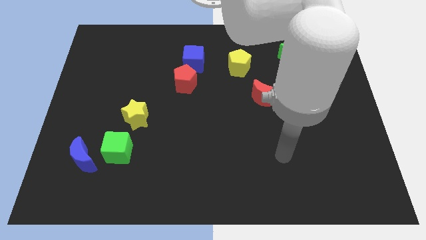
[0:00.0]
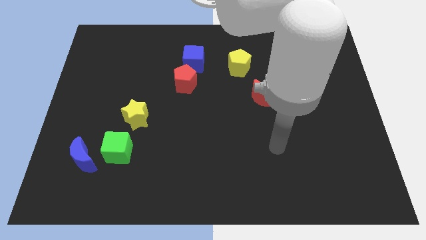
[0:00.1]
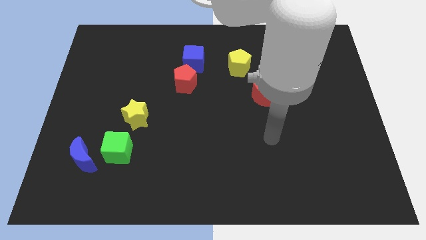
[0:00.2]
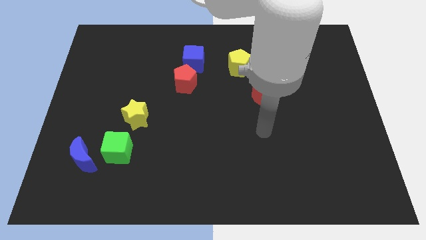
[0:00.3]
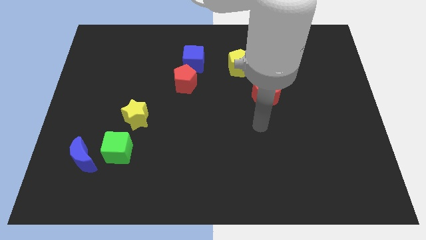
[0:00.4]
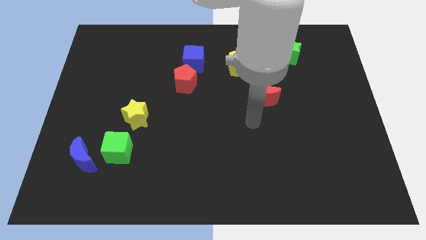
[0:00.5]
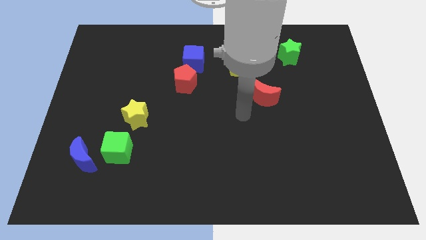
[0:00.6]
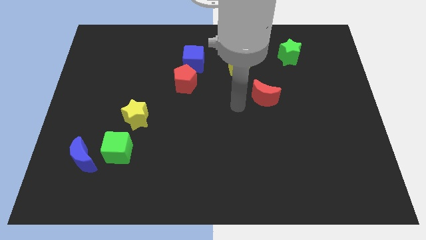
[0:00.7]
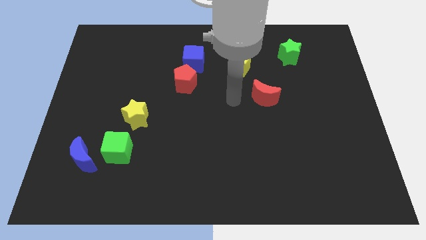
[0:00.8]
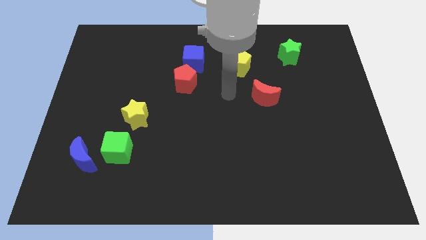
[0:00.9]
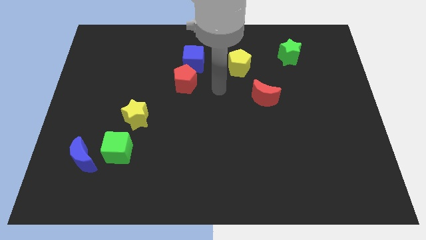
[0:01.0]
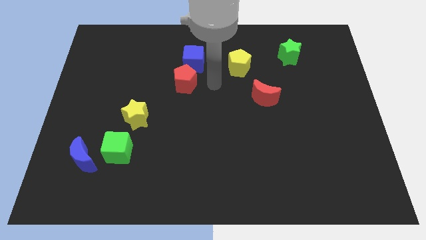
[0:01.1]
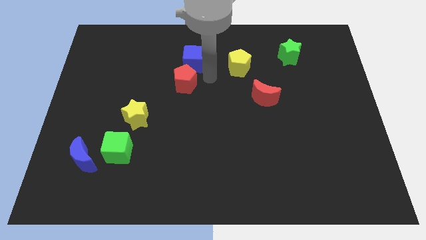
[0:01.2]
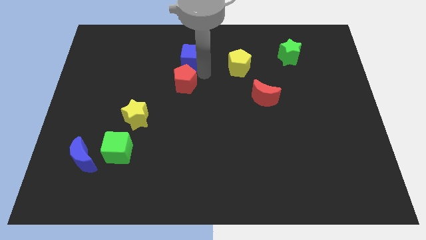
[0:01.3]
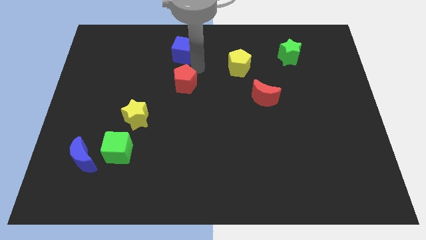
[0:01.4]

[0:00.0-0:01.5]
separate the red pentagon from the blue cube

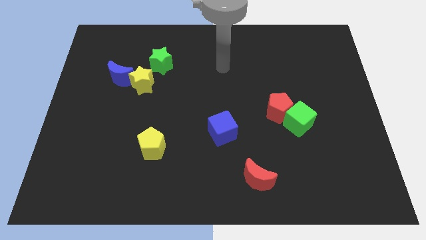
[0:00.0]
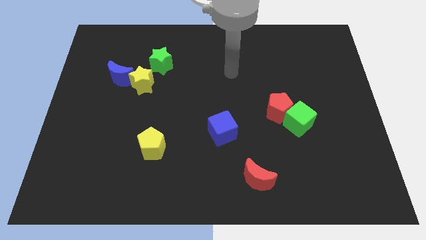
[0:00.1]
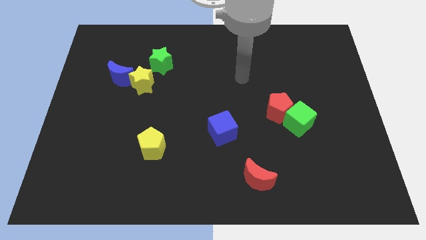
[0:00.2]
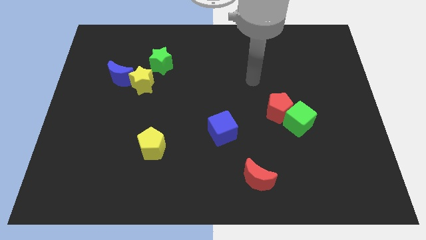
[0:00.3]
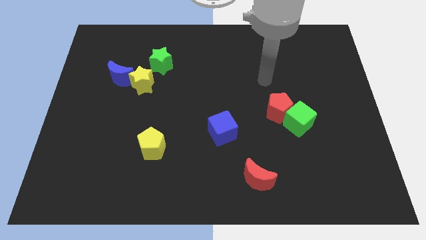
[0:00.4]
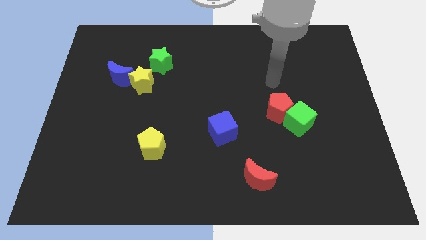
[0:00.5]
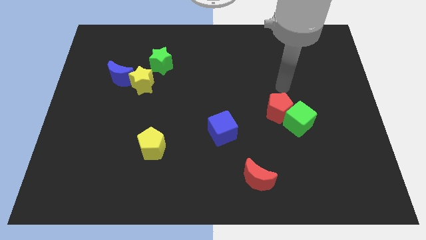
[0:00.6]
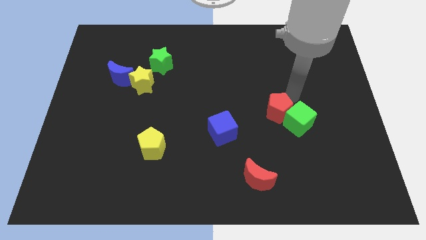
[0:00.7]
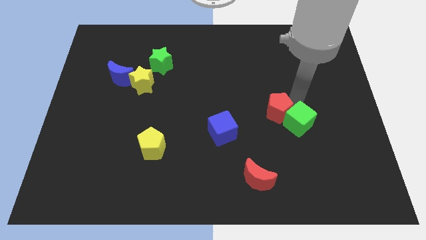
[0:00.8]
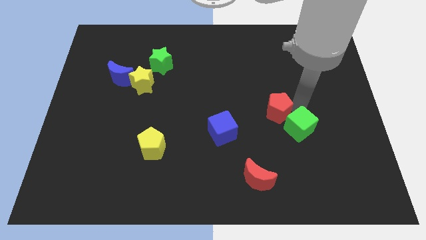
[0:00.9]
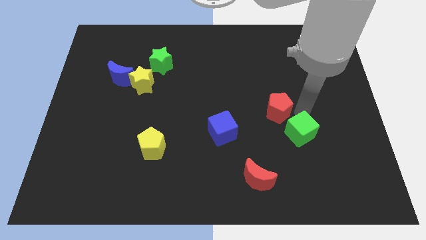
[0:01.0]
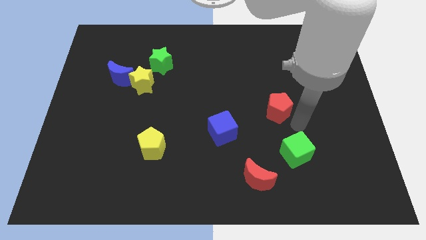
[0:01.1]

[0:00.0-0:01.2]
move the red pentagon away from the green cube

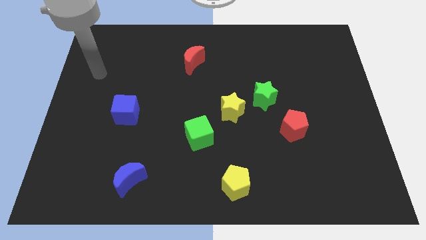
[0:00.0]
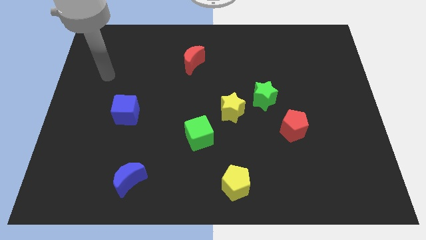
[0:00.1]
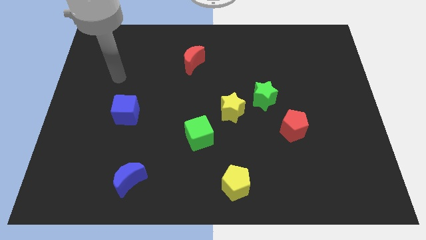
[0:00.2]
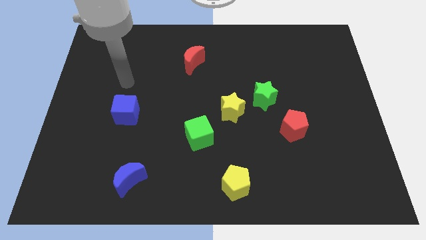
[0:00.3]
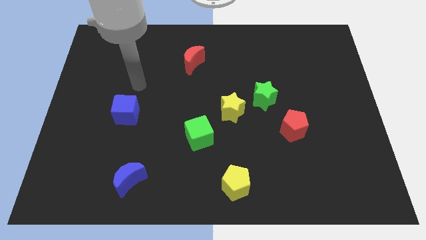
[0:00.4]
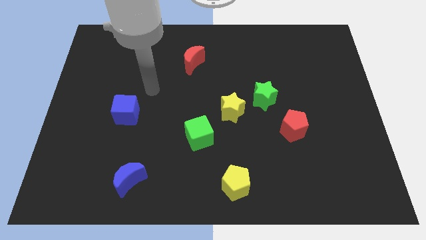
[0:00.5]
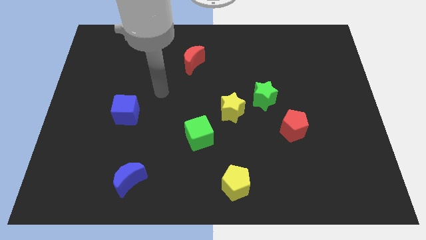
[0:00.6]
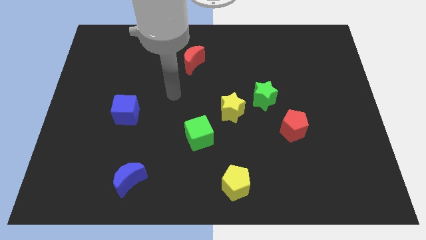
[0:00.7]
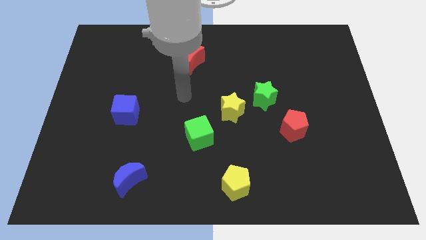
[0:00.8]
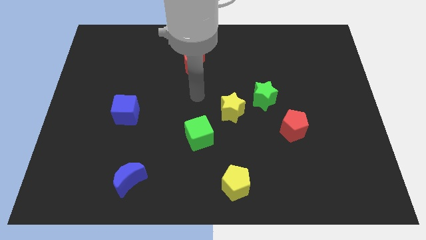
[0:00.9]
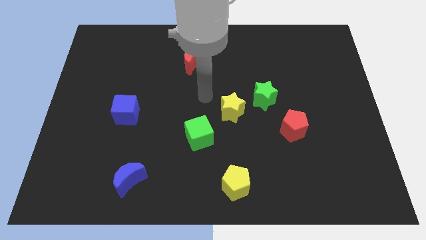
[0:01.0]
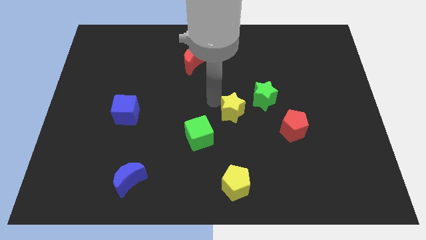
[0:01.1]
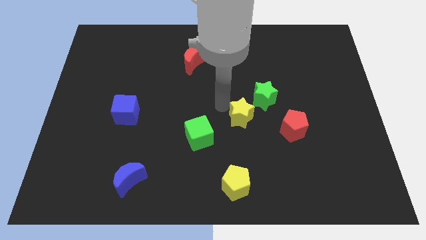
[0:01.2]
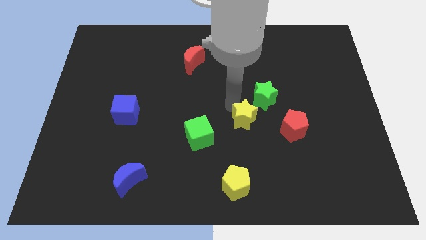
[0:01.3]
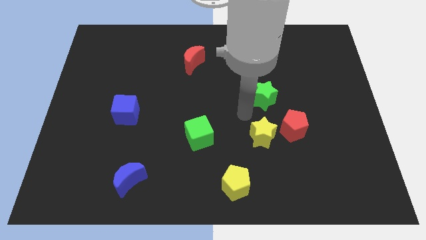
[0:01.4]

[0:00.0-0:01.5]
separate the green star from the yellow star

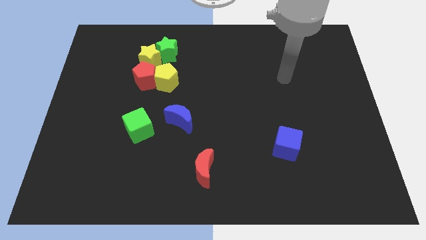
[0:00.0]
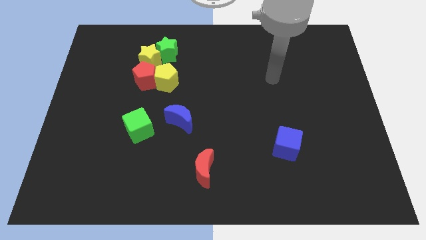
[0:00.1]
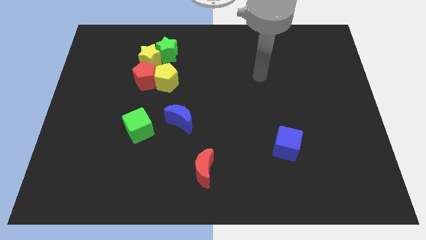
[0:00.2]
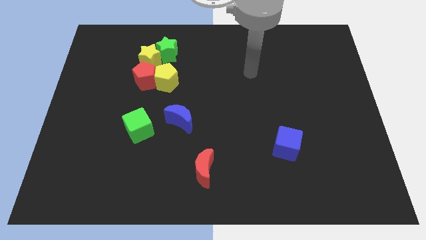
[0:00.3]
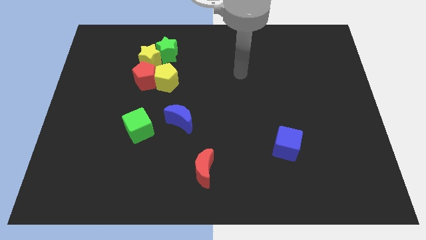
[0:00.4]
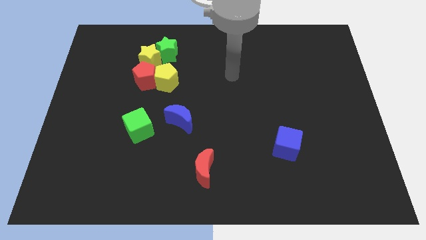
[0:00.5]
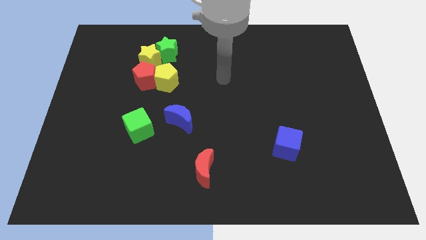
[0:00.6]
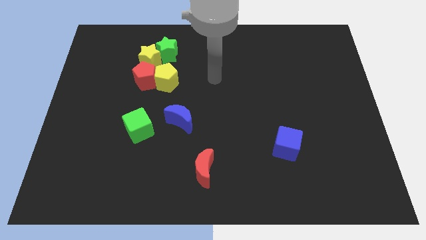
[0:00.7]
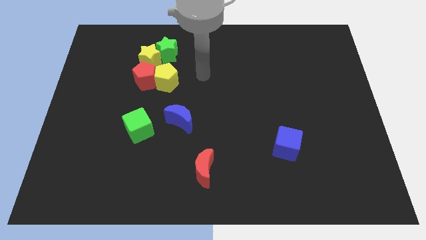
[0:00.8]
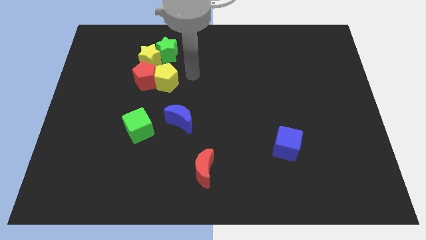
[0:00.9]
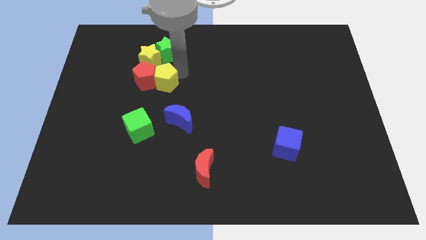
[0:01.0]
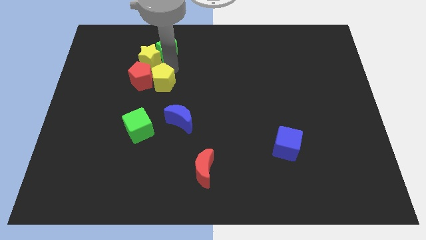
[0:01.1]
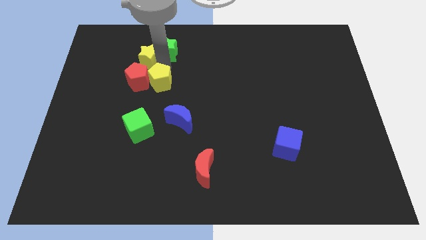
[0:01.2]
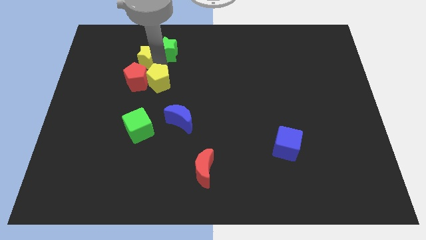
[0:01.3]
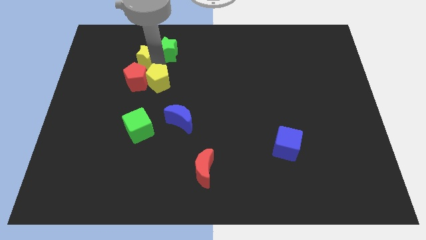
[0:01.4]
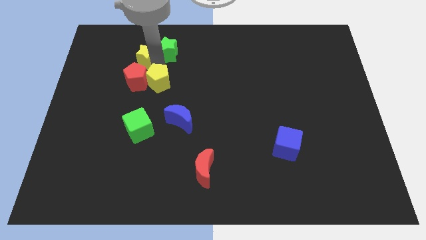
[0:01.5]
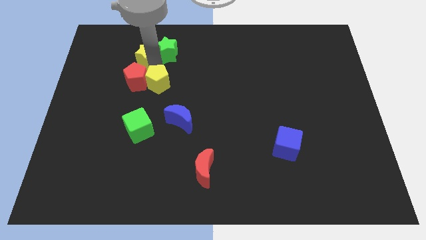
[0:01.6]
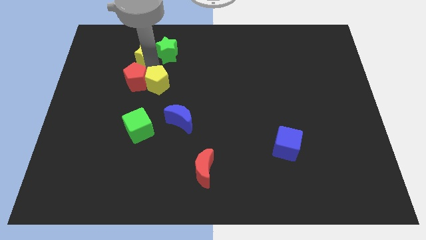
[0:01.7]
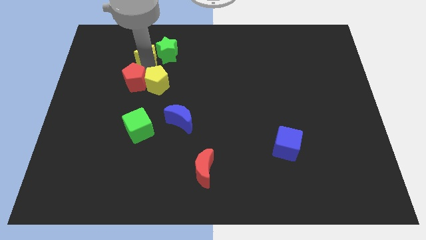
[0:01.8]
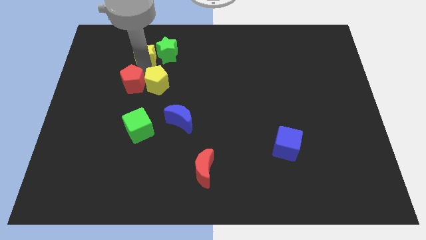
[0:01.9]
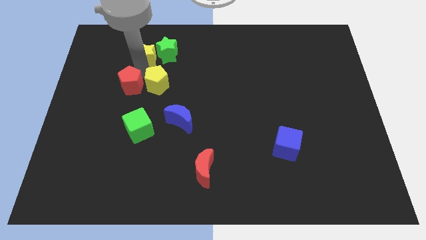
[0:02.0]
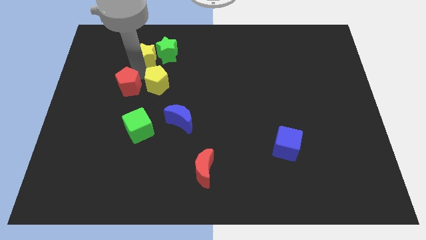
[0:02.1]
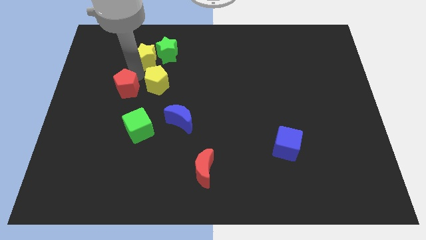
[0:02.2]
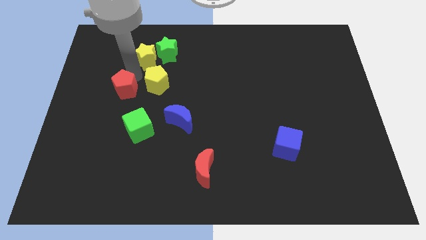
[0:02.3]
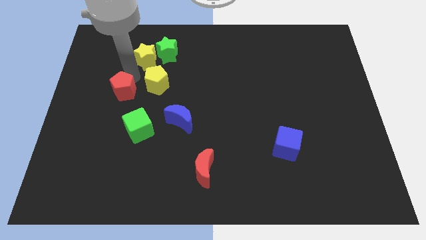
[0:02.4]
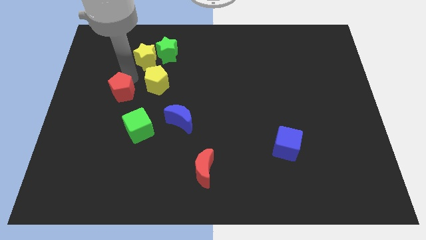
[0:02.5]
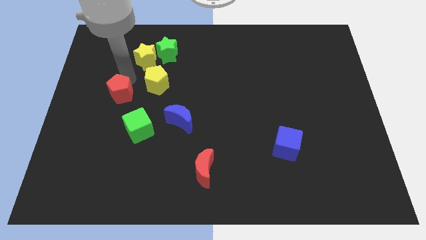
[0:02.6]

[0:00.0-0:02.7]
pull the red pentagon apart from the yellow pentagon and yellow star

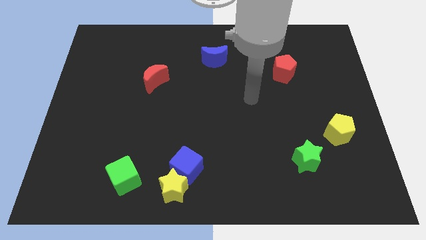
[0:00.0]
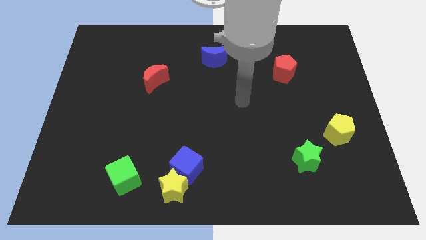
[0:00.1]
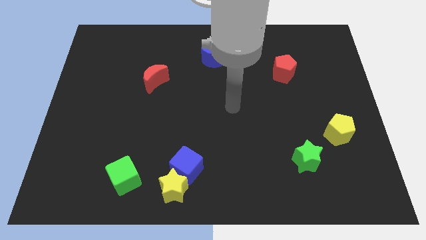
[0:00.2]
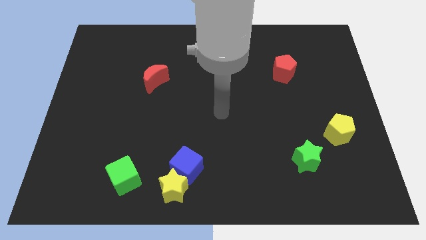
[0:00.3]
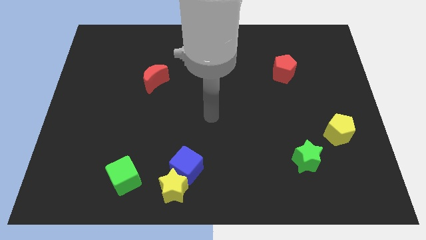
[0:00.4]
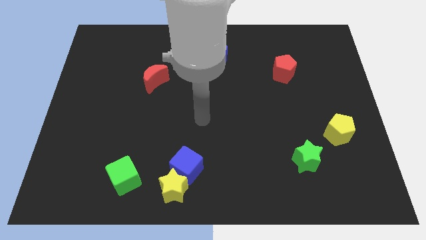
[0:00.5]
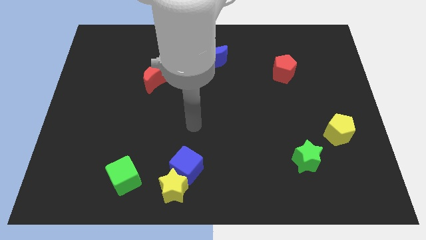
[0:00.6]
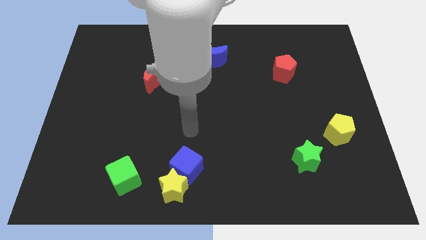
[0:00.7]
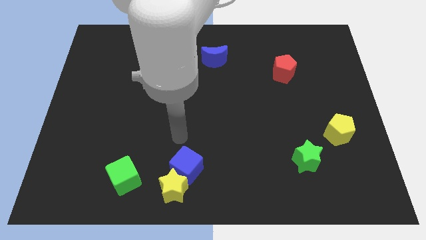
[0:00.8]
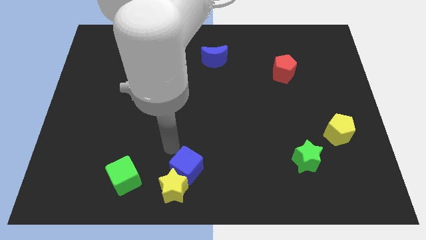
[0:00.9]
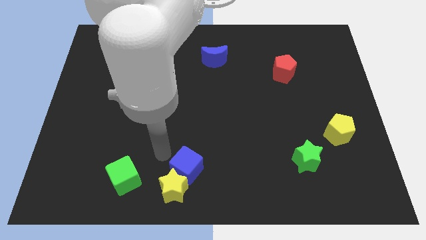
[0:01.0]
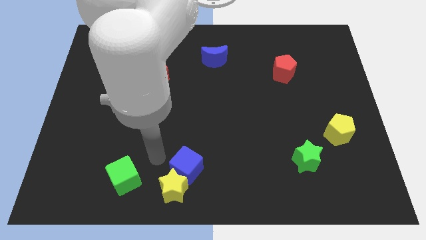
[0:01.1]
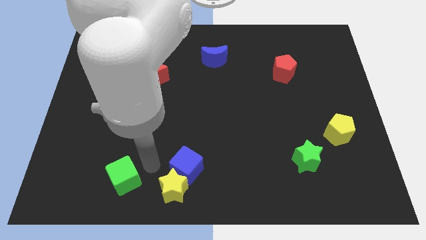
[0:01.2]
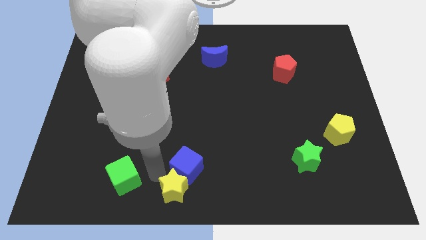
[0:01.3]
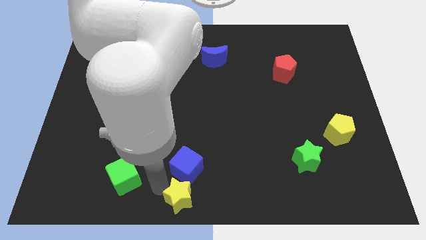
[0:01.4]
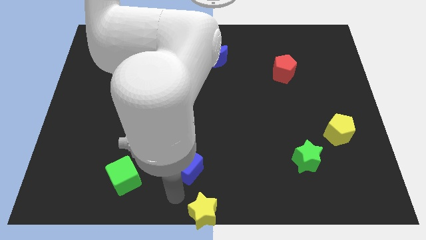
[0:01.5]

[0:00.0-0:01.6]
separate the blue cube from the yellow star

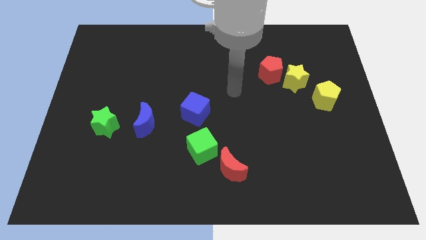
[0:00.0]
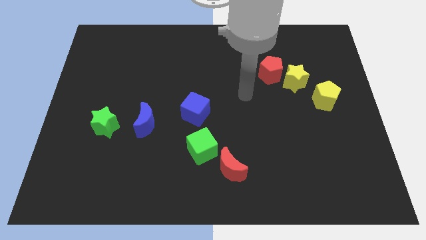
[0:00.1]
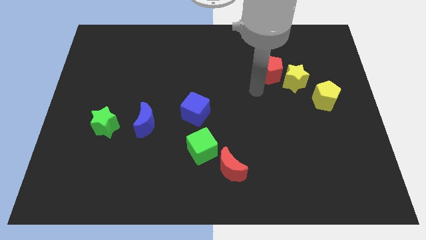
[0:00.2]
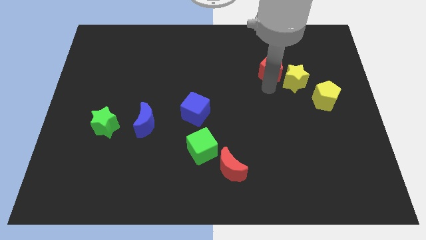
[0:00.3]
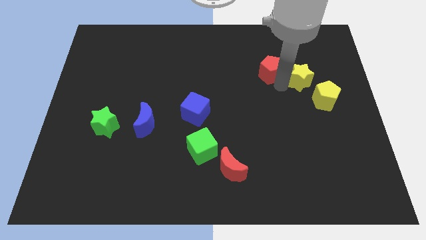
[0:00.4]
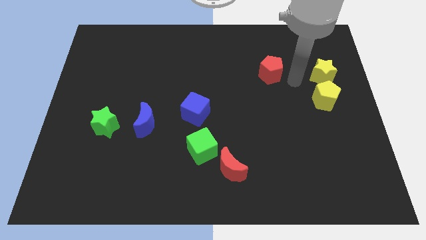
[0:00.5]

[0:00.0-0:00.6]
pull the red pentagon apart from the yellow star
